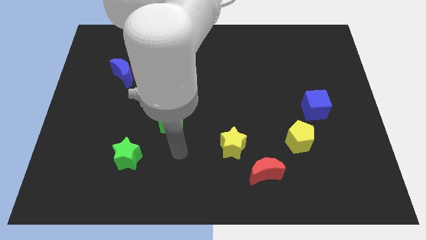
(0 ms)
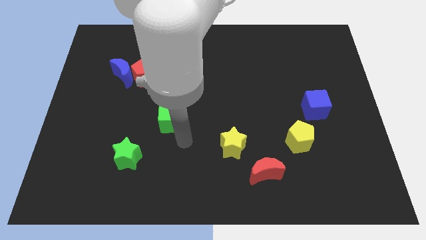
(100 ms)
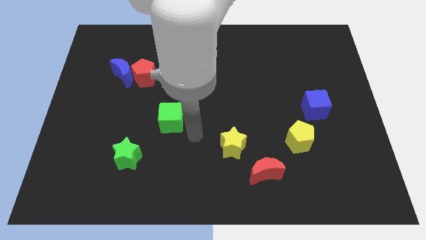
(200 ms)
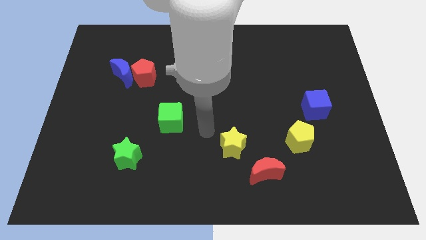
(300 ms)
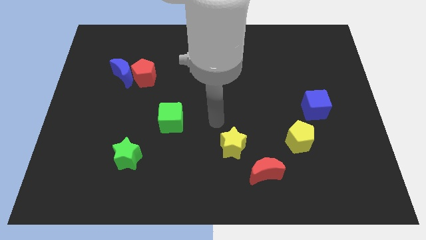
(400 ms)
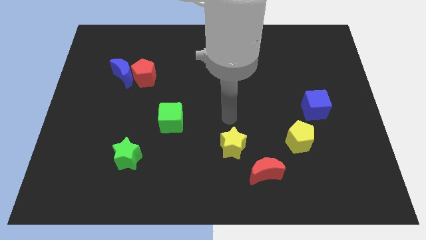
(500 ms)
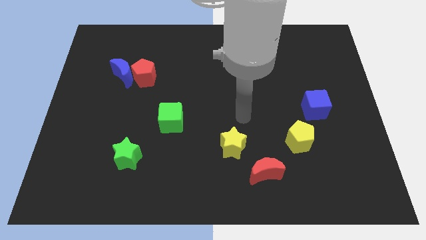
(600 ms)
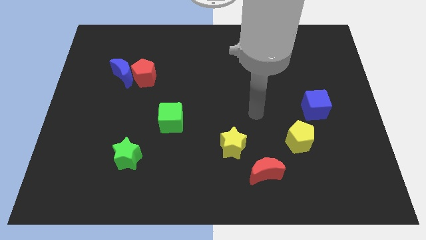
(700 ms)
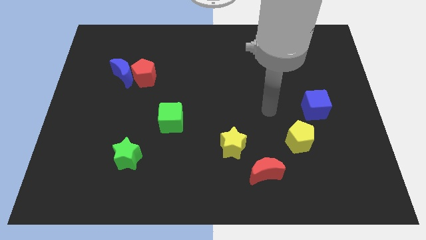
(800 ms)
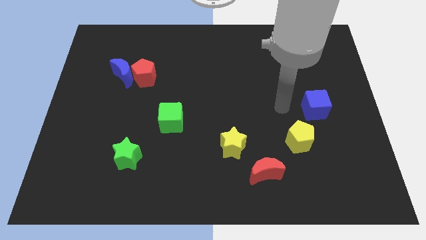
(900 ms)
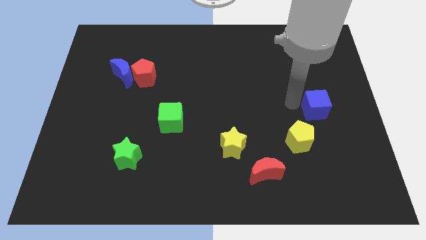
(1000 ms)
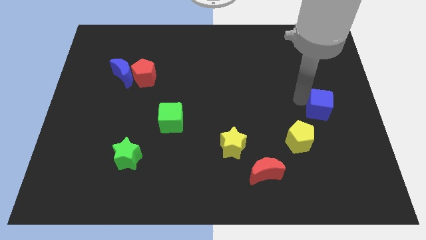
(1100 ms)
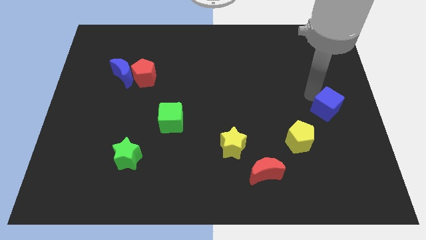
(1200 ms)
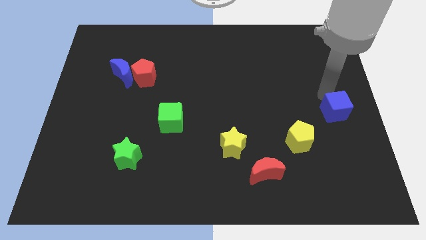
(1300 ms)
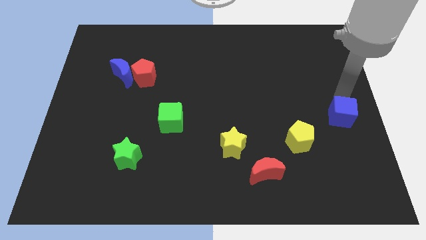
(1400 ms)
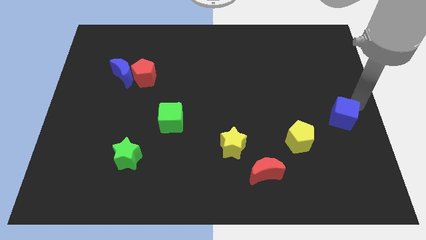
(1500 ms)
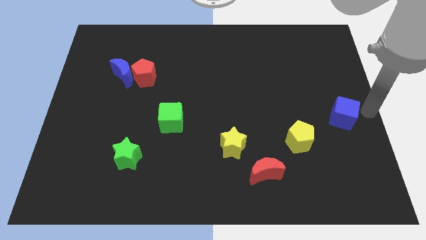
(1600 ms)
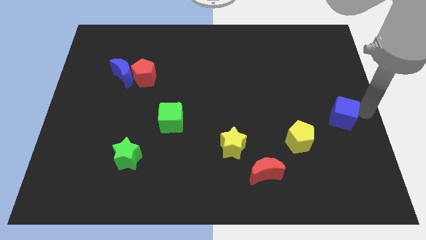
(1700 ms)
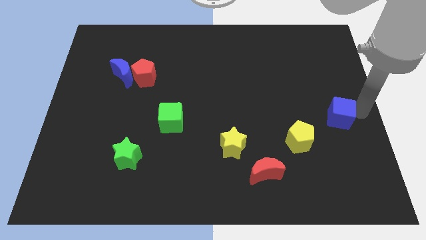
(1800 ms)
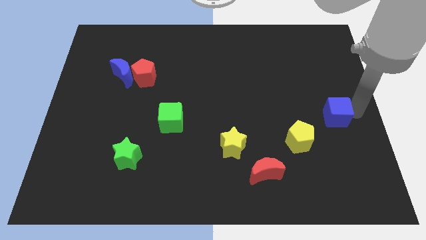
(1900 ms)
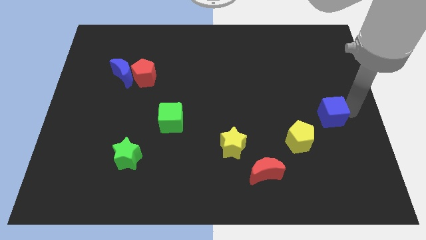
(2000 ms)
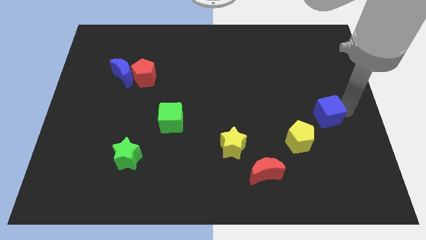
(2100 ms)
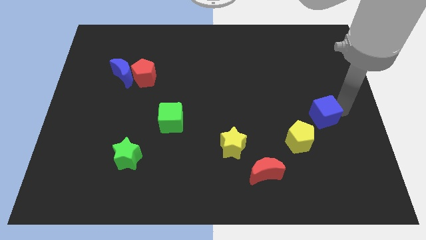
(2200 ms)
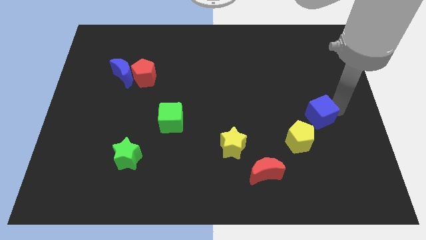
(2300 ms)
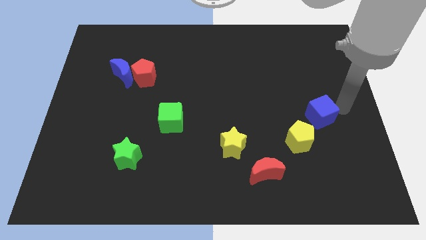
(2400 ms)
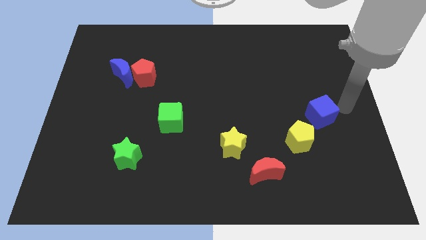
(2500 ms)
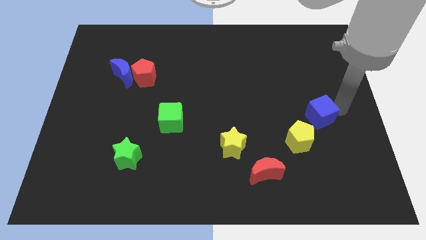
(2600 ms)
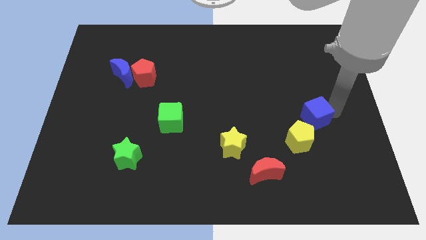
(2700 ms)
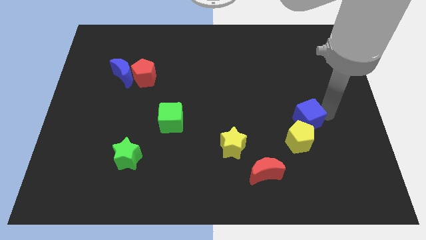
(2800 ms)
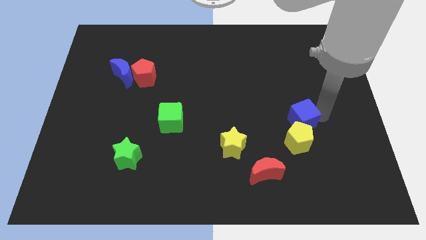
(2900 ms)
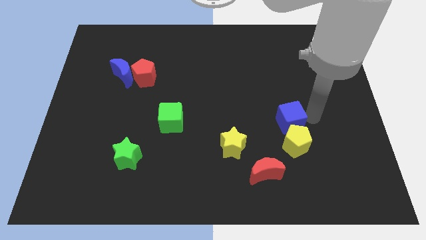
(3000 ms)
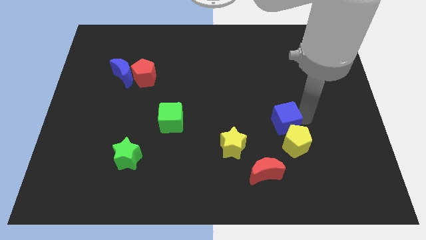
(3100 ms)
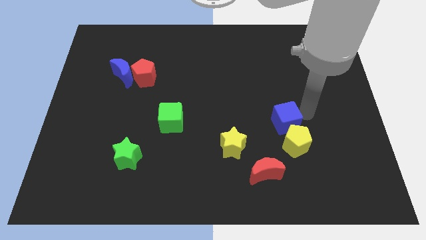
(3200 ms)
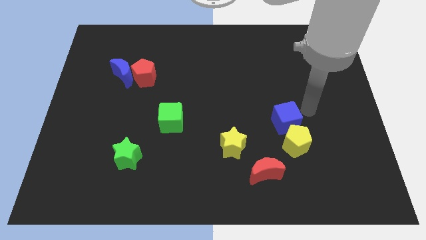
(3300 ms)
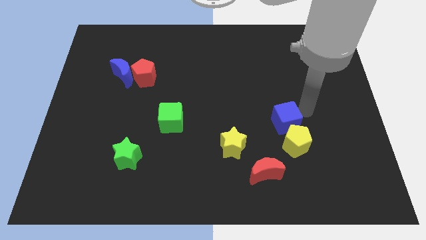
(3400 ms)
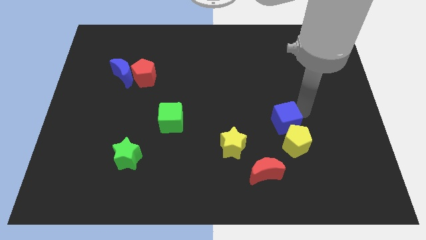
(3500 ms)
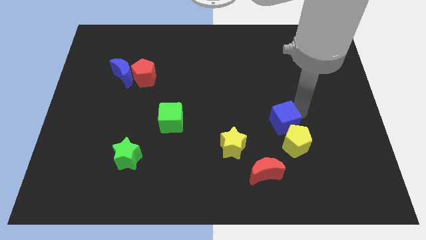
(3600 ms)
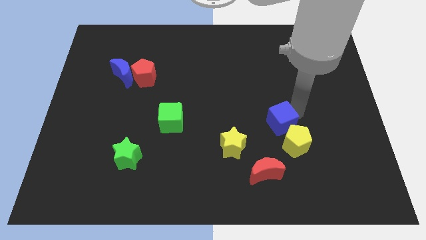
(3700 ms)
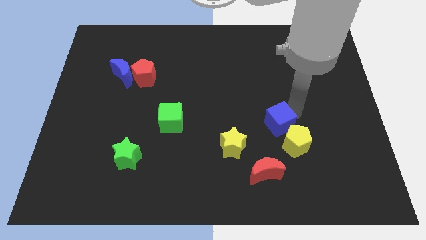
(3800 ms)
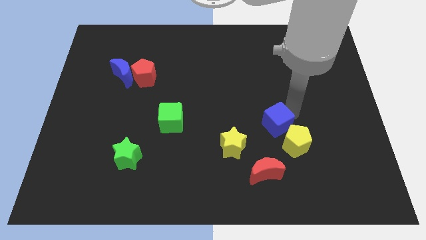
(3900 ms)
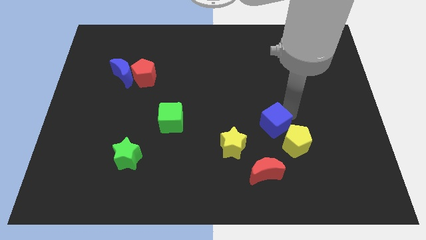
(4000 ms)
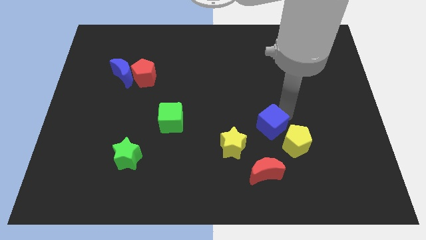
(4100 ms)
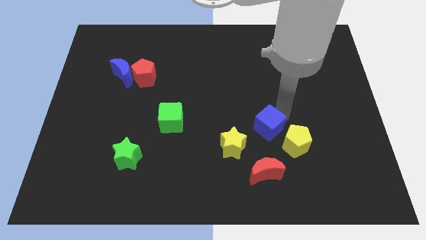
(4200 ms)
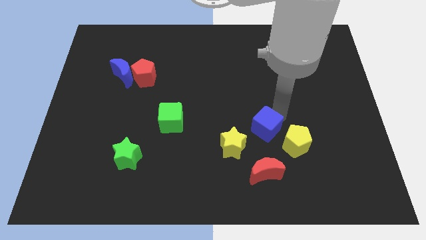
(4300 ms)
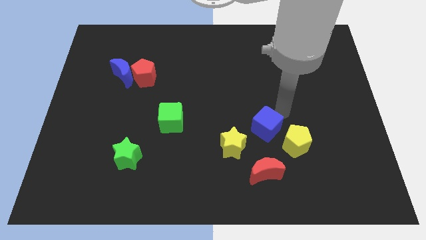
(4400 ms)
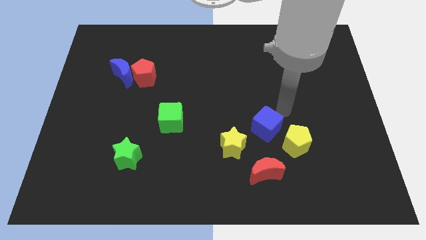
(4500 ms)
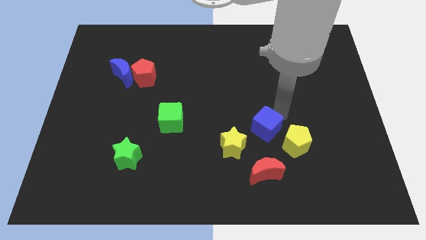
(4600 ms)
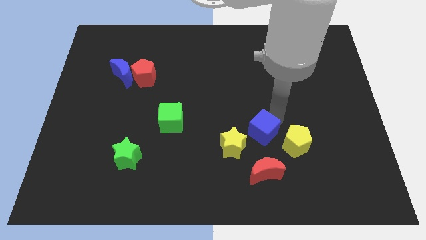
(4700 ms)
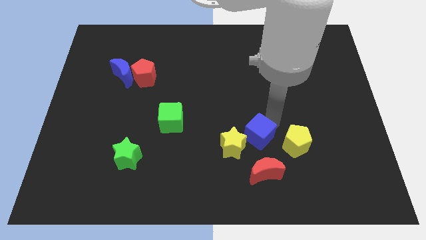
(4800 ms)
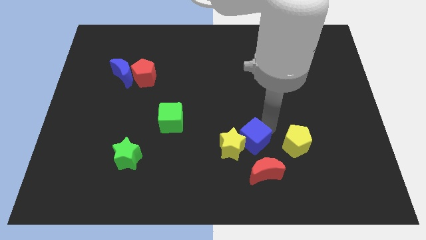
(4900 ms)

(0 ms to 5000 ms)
push the blue cube close to the yellow star

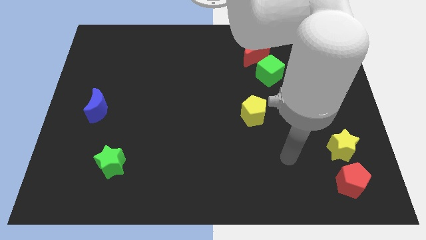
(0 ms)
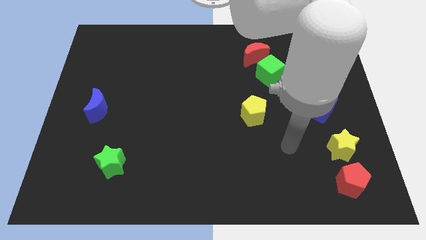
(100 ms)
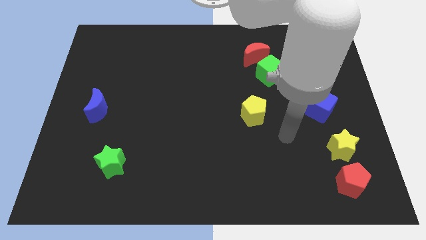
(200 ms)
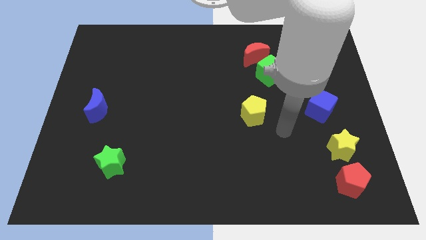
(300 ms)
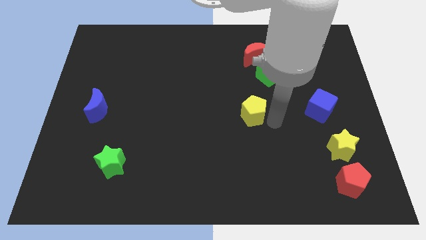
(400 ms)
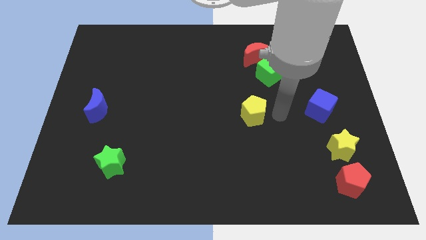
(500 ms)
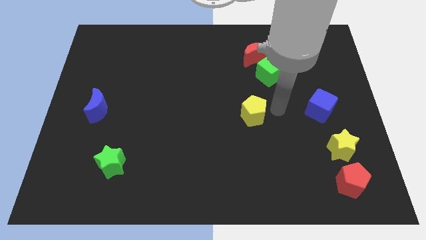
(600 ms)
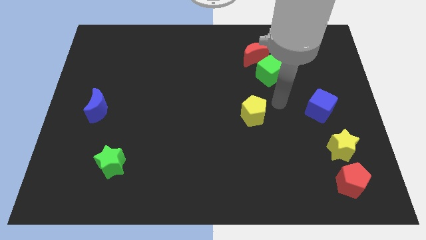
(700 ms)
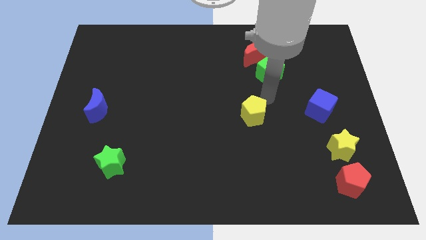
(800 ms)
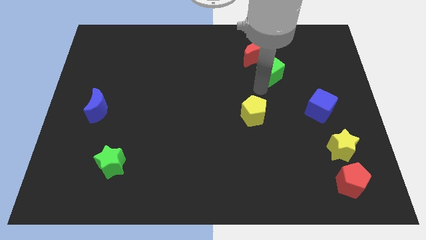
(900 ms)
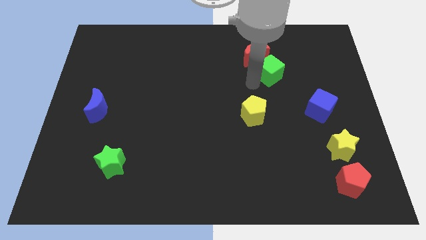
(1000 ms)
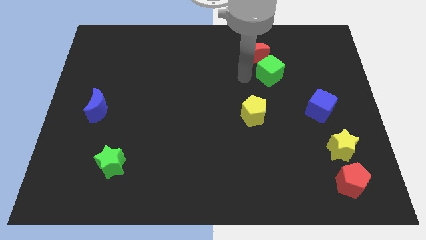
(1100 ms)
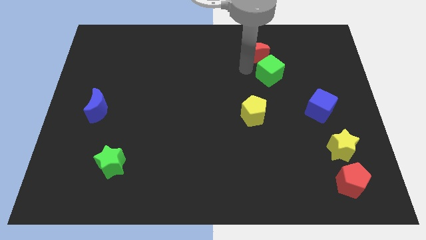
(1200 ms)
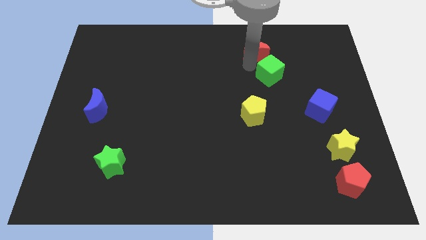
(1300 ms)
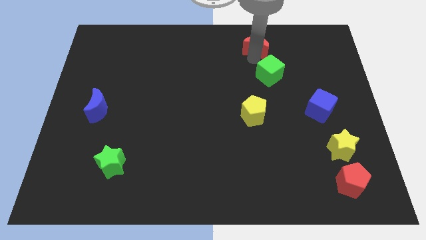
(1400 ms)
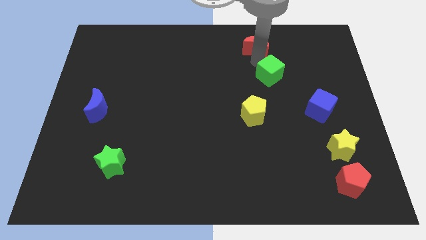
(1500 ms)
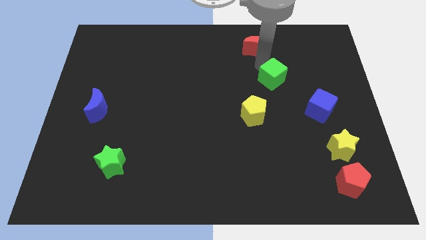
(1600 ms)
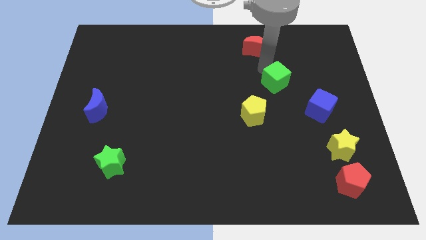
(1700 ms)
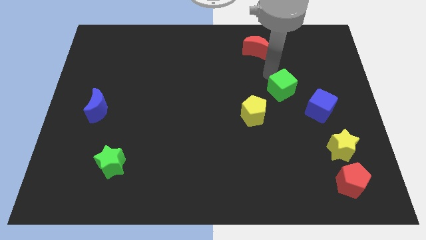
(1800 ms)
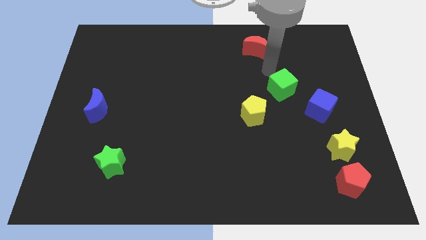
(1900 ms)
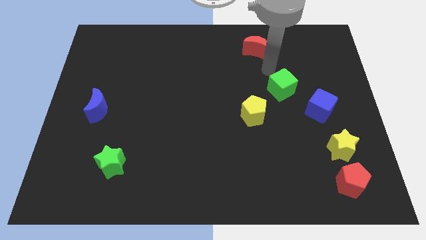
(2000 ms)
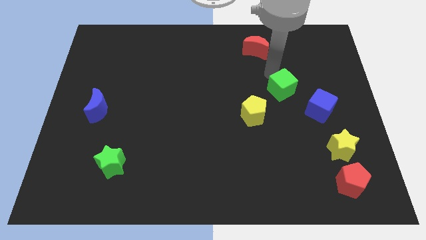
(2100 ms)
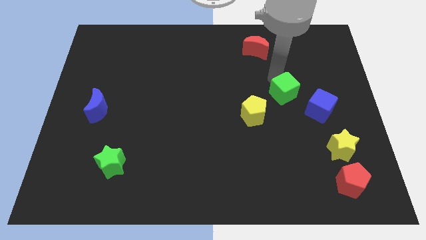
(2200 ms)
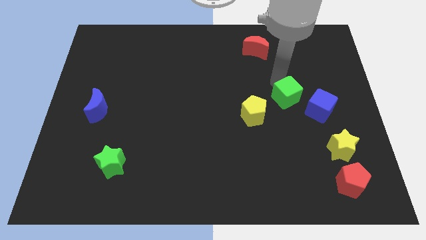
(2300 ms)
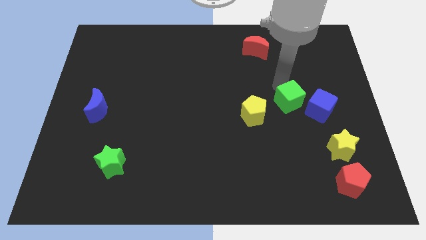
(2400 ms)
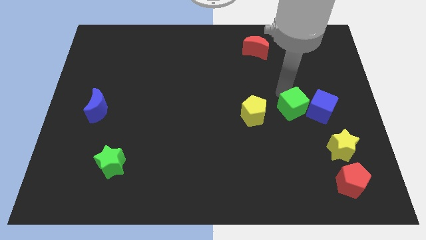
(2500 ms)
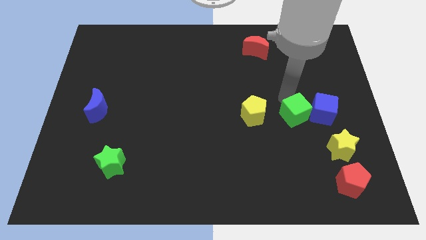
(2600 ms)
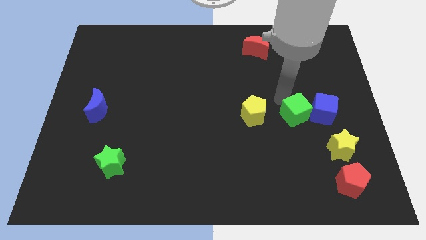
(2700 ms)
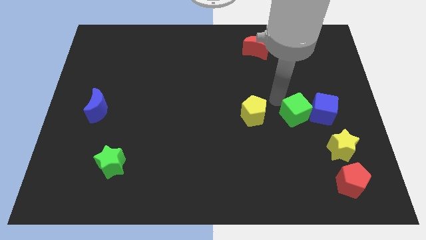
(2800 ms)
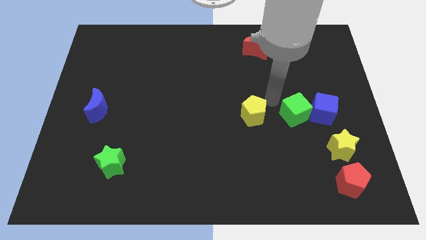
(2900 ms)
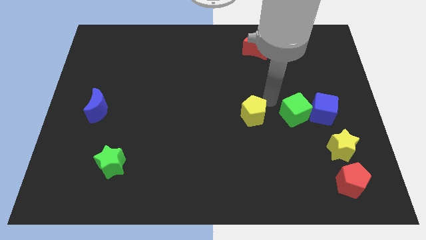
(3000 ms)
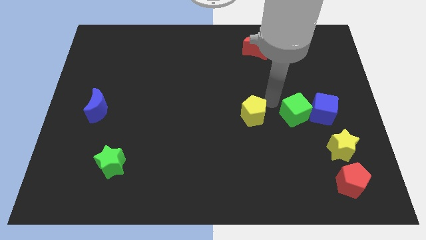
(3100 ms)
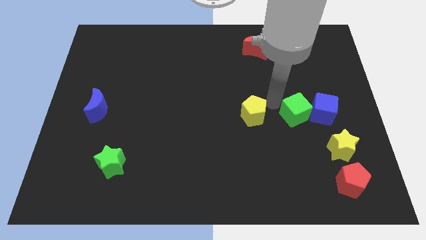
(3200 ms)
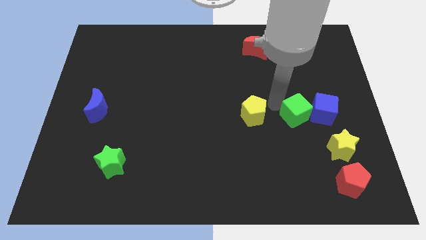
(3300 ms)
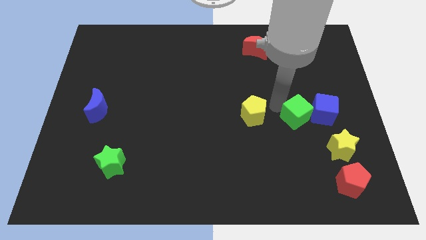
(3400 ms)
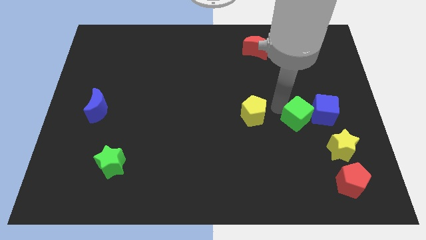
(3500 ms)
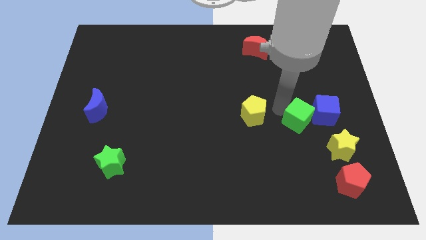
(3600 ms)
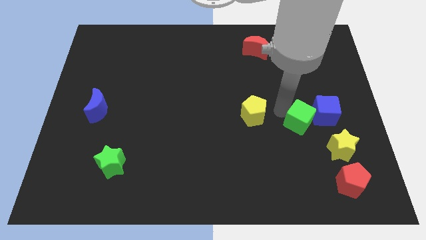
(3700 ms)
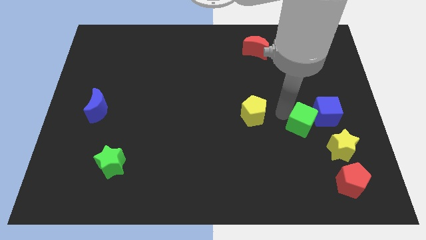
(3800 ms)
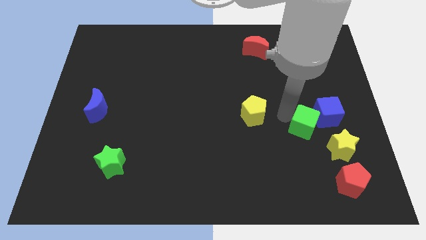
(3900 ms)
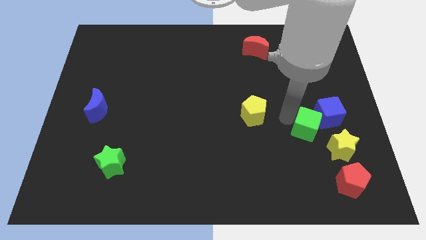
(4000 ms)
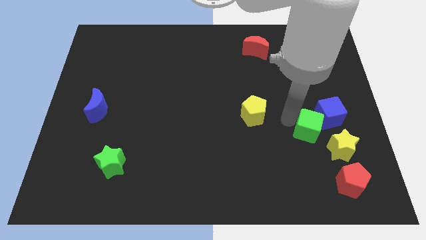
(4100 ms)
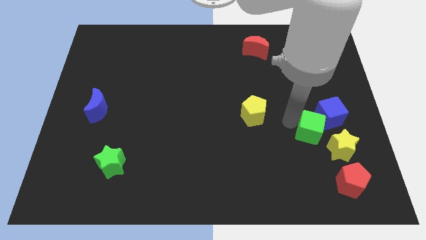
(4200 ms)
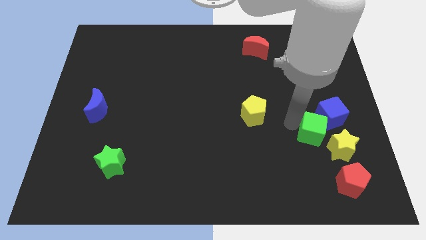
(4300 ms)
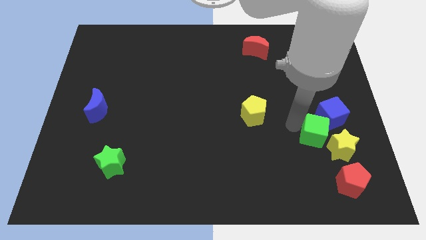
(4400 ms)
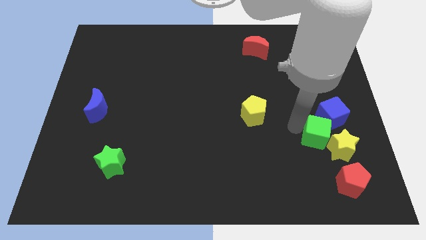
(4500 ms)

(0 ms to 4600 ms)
put the green cube towards the yellow star
